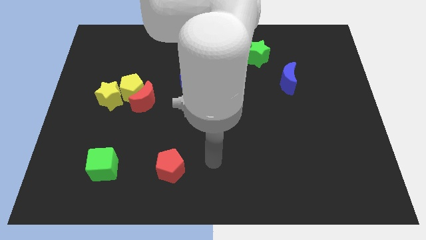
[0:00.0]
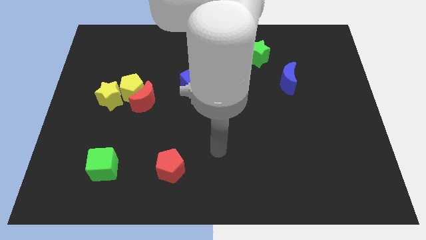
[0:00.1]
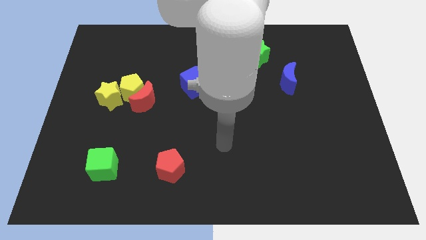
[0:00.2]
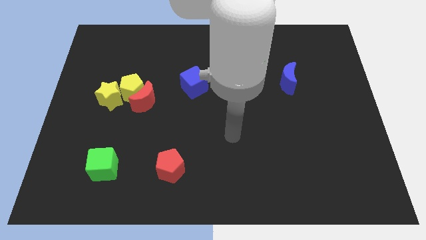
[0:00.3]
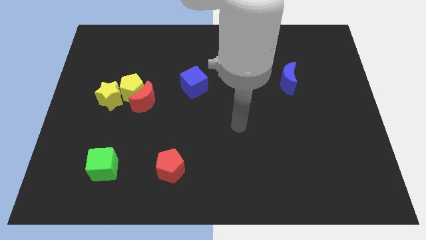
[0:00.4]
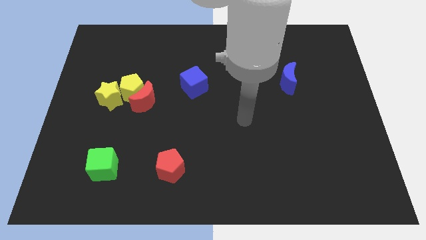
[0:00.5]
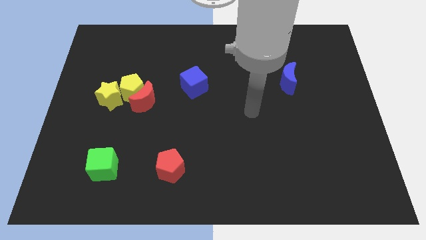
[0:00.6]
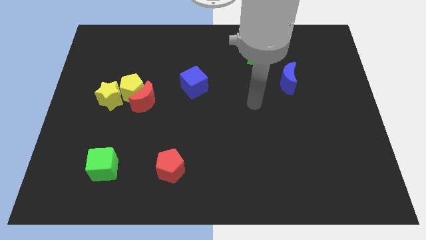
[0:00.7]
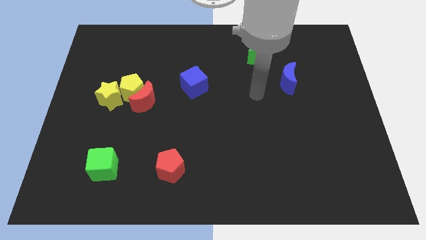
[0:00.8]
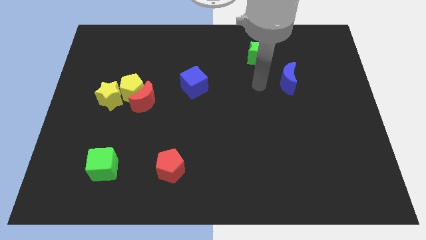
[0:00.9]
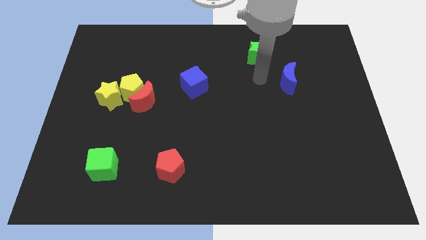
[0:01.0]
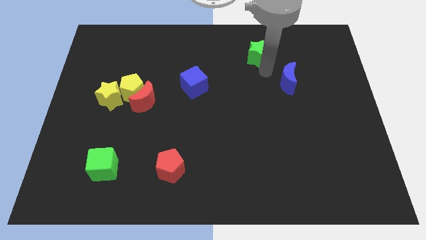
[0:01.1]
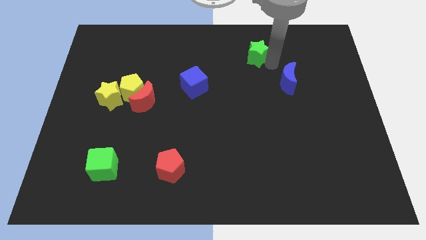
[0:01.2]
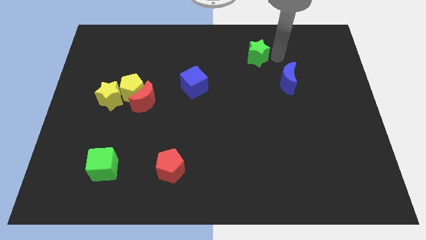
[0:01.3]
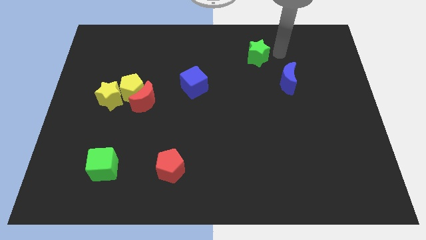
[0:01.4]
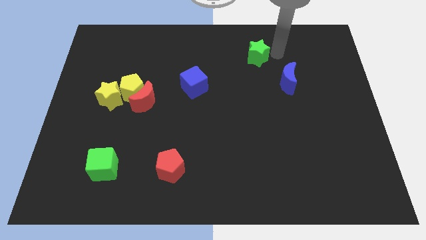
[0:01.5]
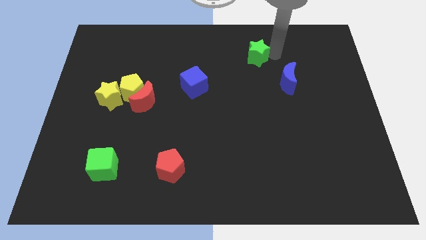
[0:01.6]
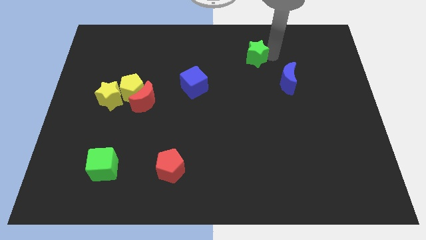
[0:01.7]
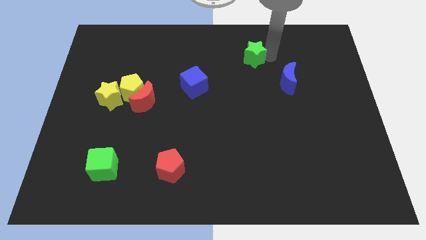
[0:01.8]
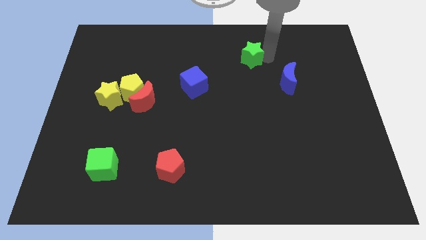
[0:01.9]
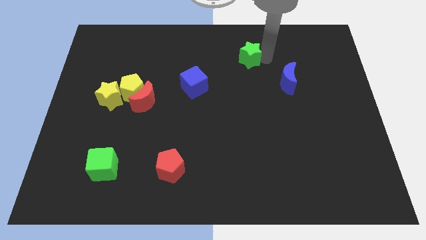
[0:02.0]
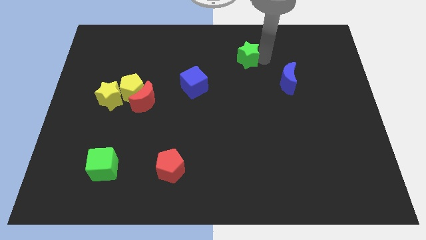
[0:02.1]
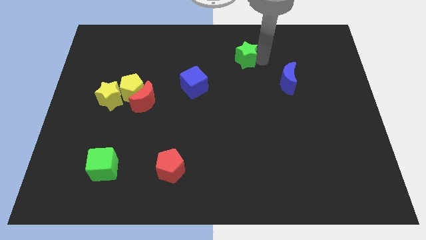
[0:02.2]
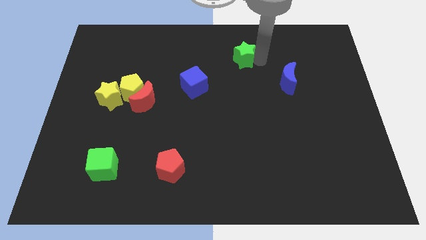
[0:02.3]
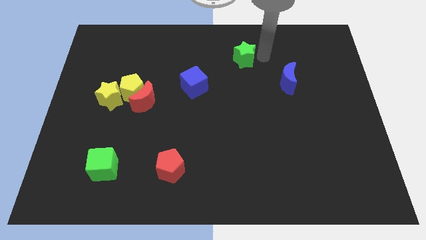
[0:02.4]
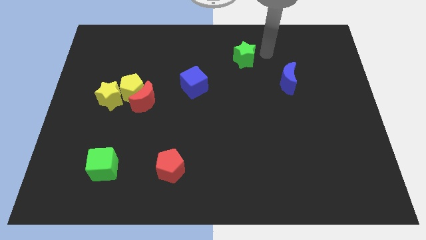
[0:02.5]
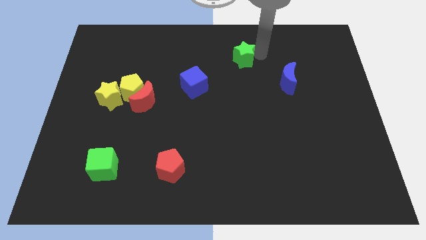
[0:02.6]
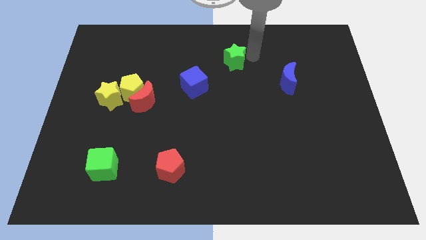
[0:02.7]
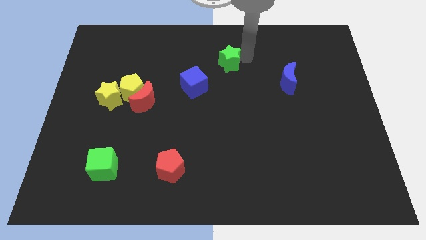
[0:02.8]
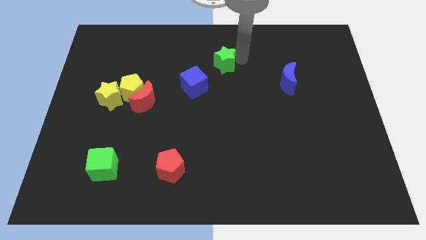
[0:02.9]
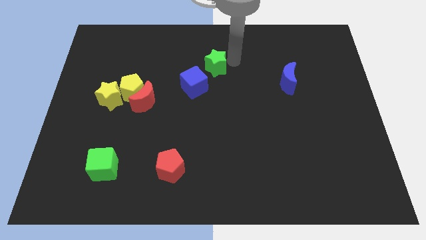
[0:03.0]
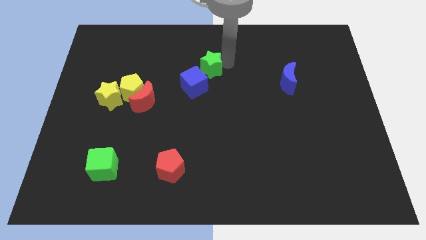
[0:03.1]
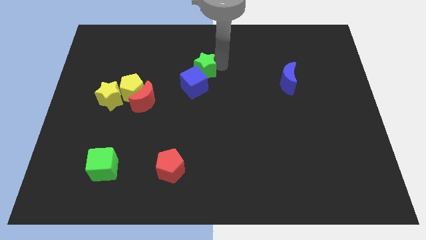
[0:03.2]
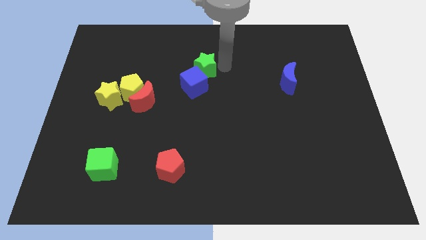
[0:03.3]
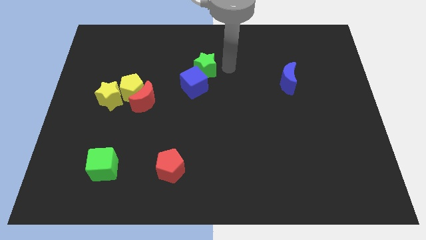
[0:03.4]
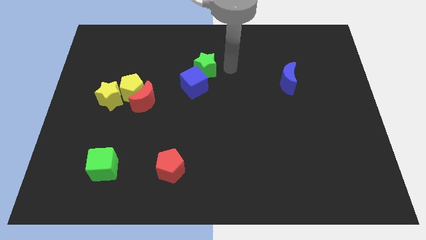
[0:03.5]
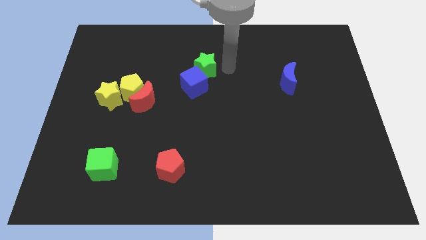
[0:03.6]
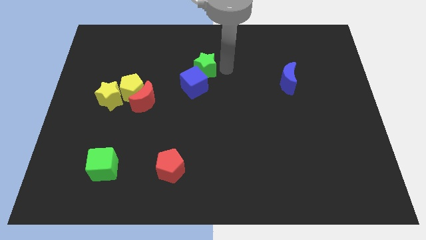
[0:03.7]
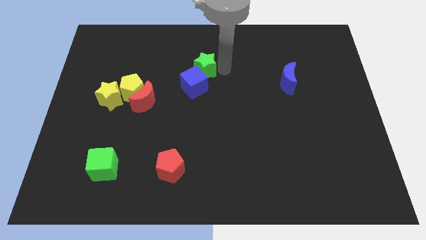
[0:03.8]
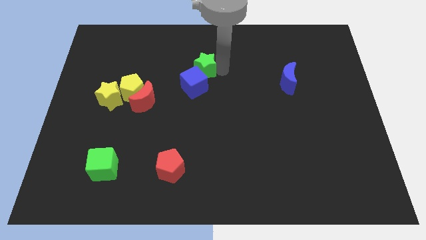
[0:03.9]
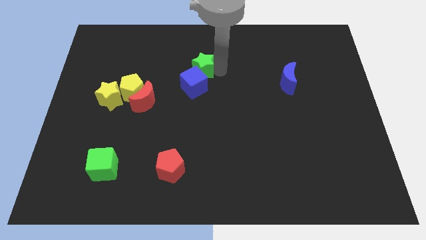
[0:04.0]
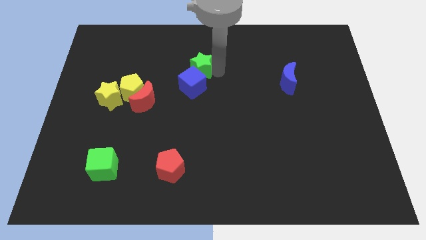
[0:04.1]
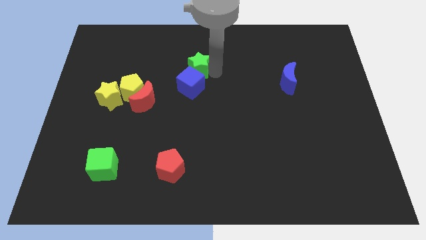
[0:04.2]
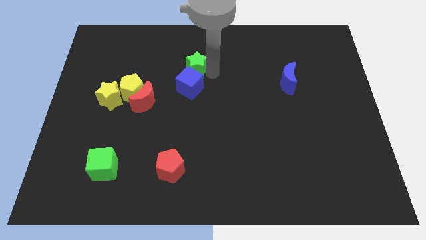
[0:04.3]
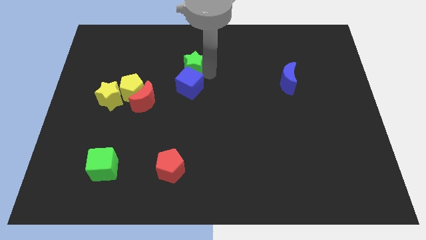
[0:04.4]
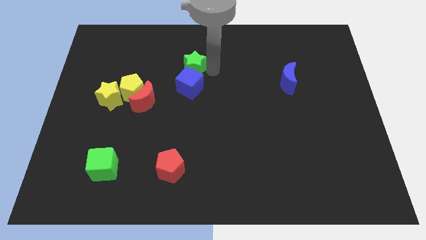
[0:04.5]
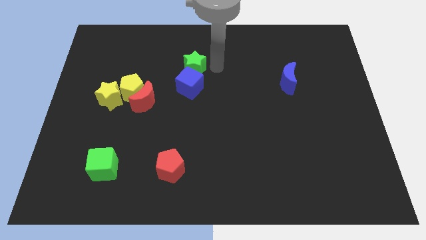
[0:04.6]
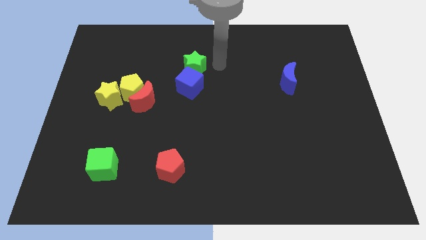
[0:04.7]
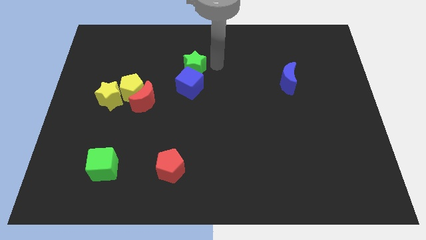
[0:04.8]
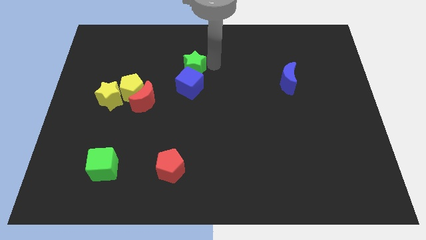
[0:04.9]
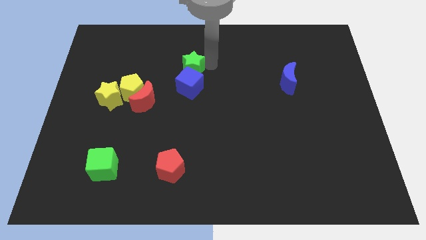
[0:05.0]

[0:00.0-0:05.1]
slide the green star diagonally up and to the left of the blue cube

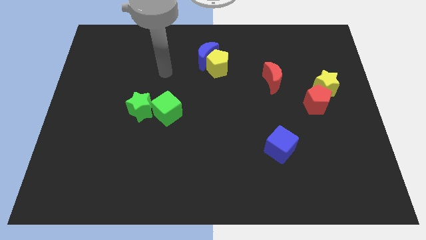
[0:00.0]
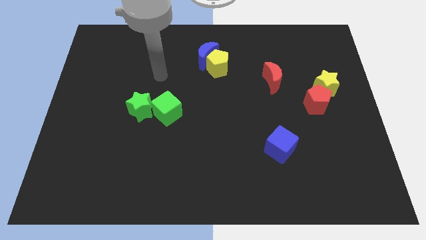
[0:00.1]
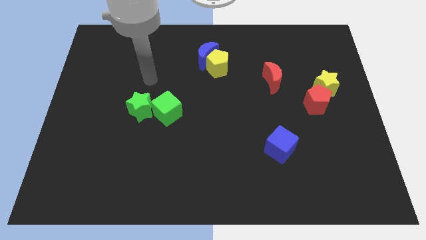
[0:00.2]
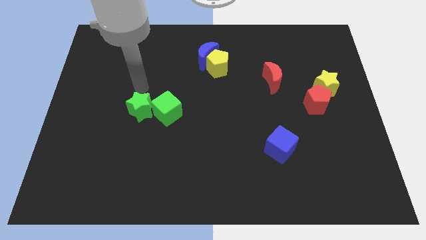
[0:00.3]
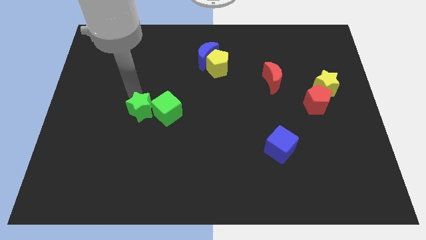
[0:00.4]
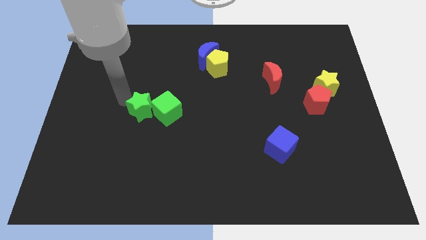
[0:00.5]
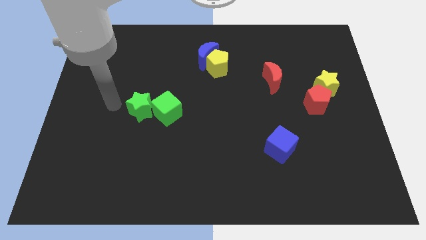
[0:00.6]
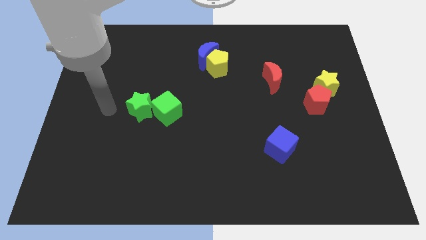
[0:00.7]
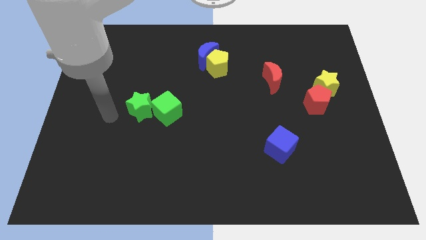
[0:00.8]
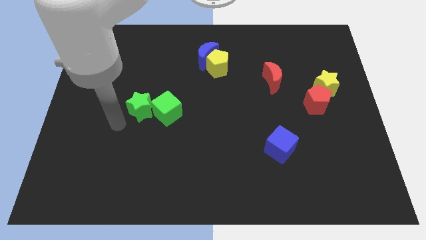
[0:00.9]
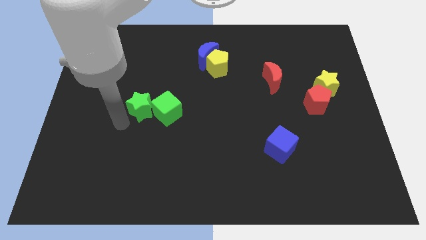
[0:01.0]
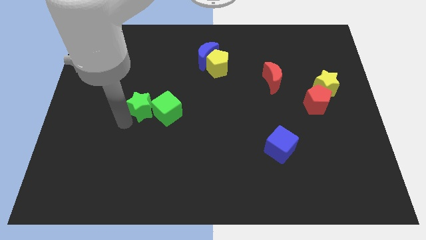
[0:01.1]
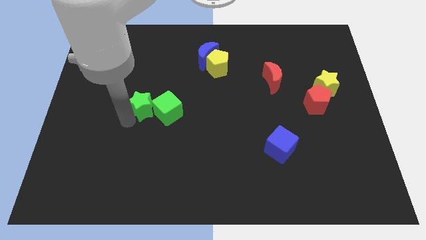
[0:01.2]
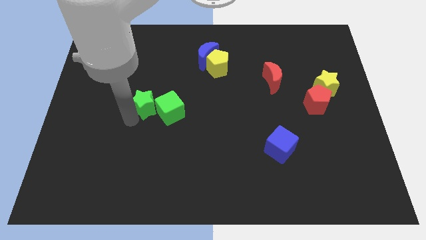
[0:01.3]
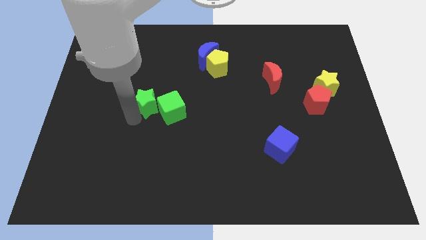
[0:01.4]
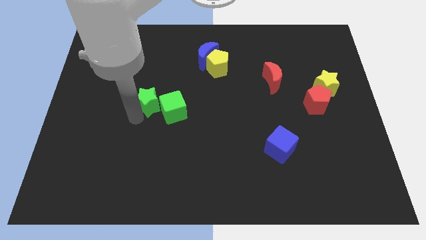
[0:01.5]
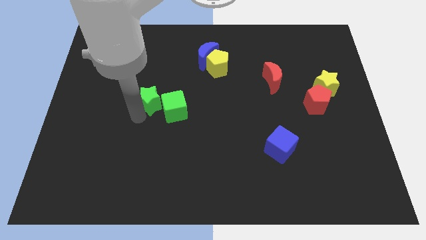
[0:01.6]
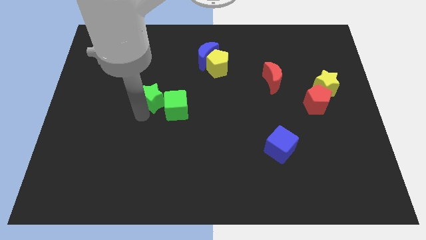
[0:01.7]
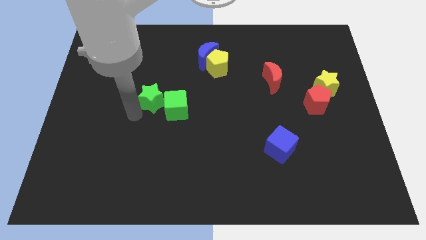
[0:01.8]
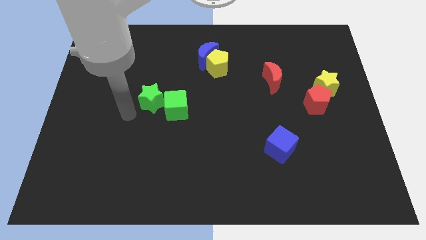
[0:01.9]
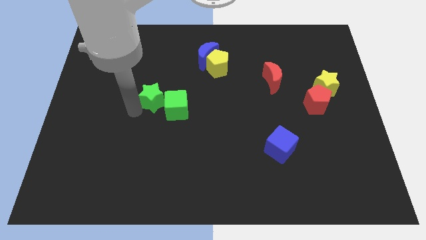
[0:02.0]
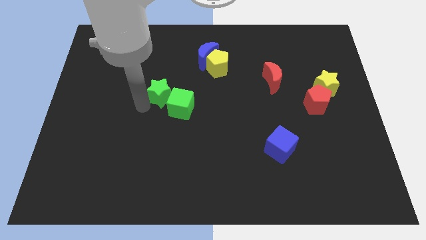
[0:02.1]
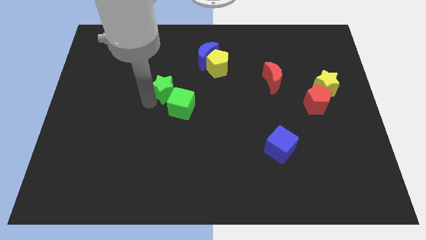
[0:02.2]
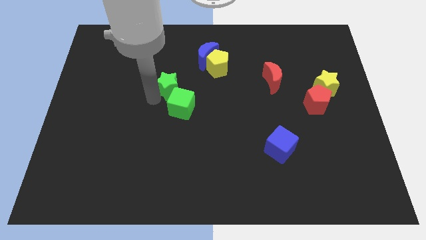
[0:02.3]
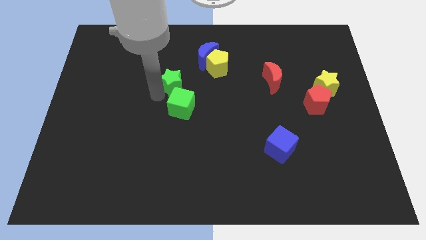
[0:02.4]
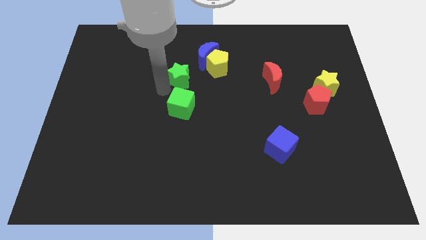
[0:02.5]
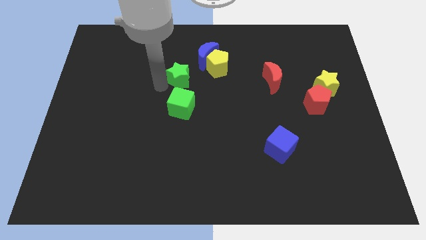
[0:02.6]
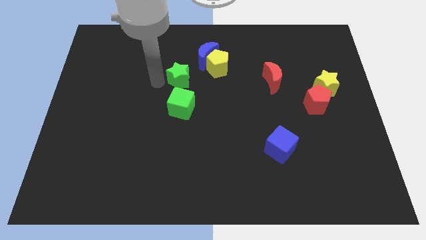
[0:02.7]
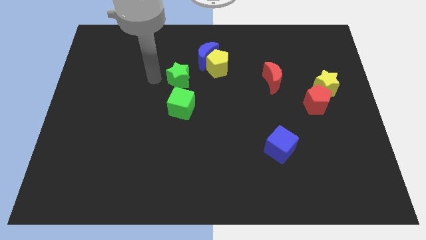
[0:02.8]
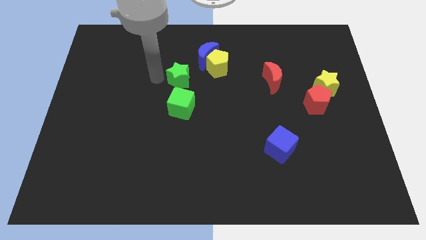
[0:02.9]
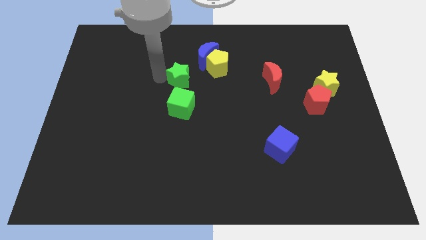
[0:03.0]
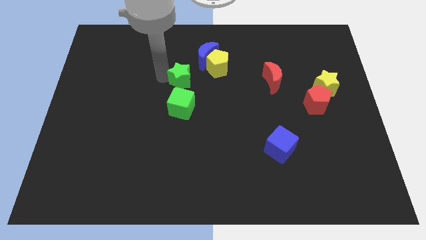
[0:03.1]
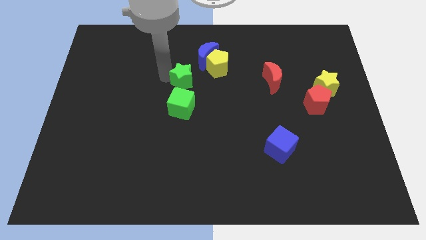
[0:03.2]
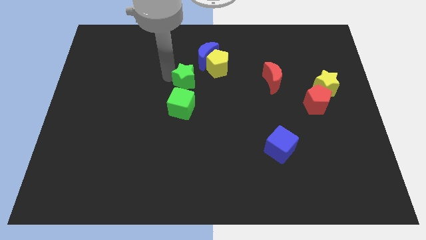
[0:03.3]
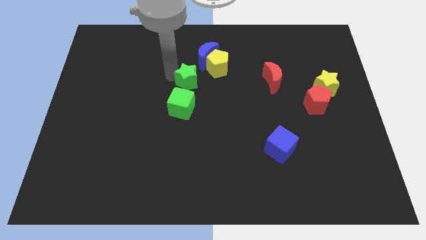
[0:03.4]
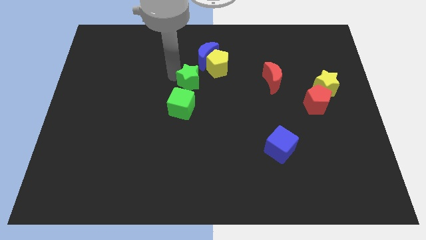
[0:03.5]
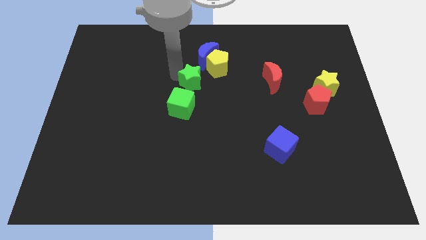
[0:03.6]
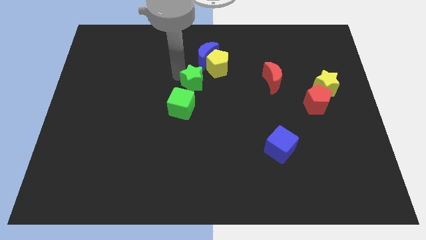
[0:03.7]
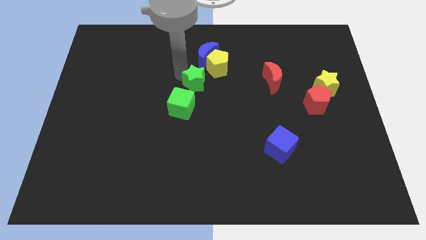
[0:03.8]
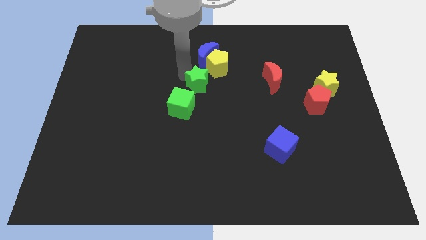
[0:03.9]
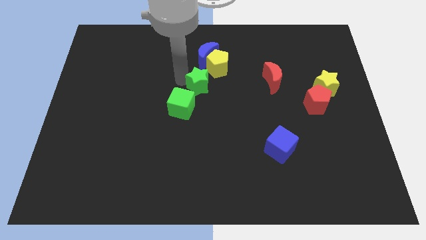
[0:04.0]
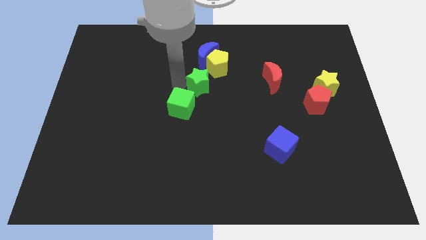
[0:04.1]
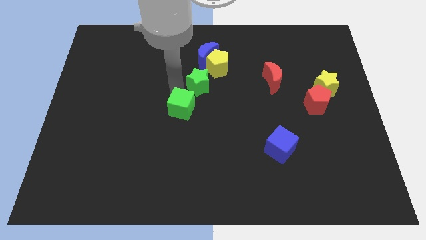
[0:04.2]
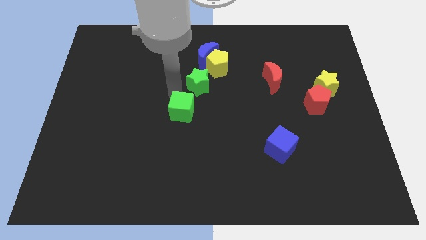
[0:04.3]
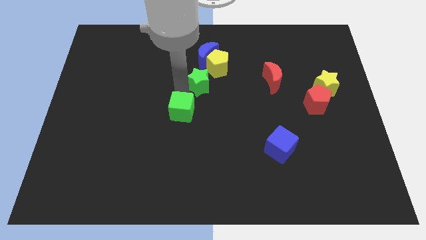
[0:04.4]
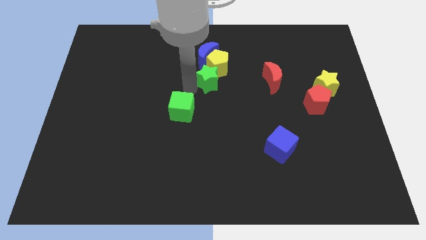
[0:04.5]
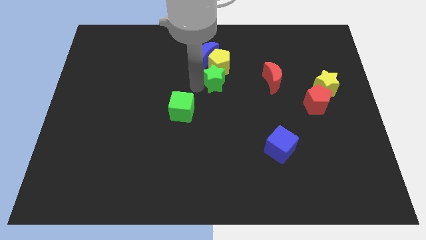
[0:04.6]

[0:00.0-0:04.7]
put the green star to the bottom right of the blue moon
